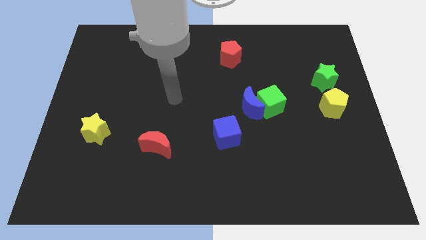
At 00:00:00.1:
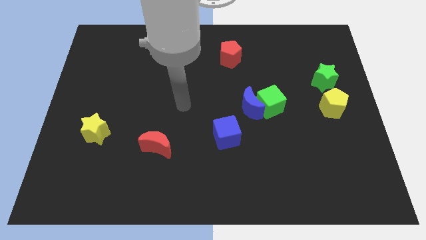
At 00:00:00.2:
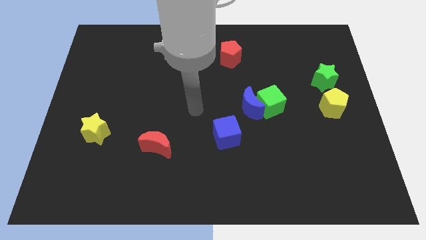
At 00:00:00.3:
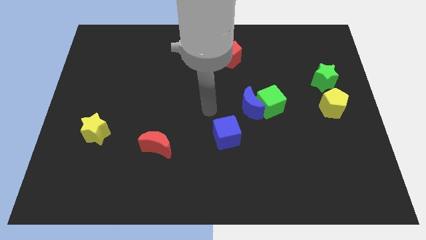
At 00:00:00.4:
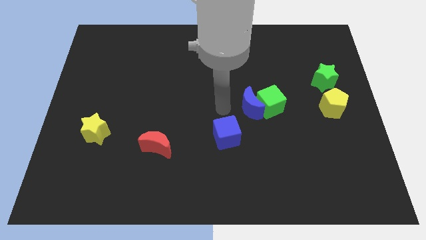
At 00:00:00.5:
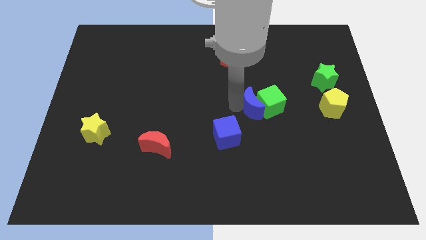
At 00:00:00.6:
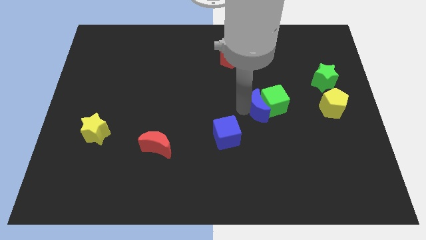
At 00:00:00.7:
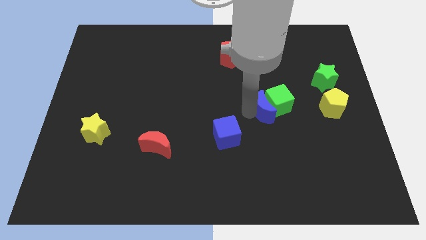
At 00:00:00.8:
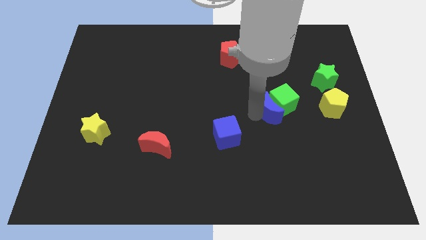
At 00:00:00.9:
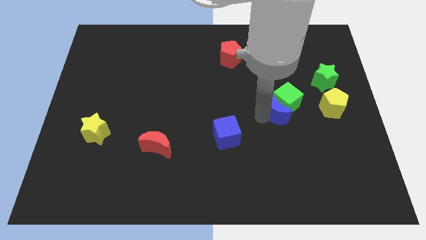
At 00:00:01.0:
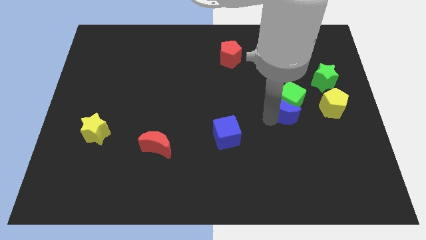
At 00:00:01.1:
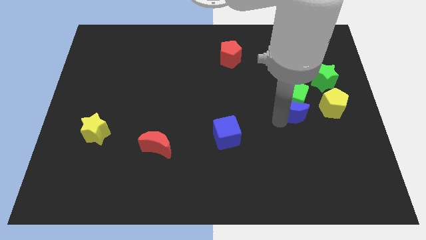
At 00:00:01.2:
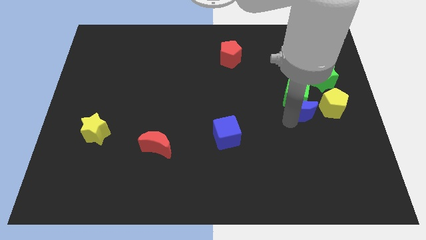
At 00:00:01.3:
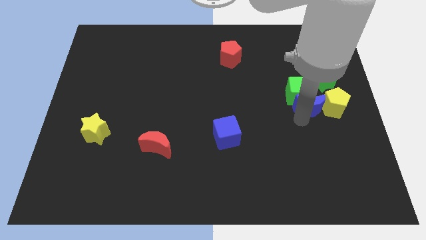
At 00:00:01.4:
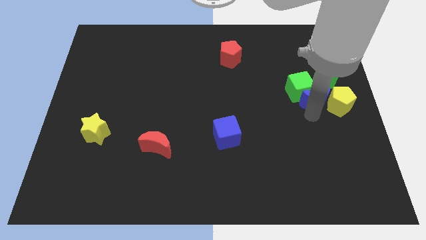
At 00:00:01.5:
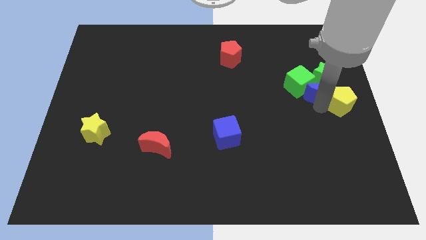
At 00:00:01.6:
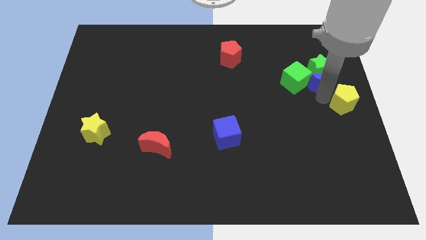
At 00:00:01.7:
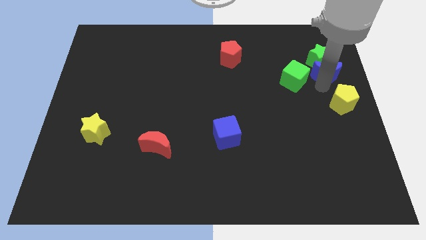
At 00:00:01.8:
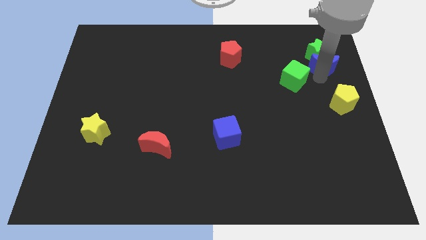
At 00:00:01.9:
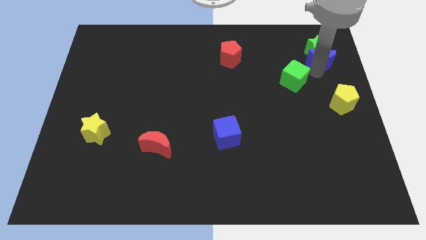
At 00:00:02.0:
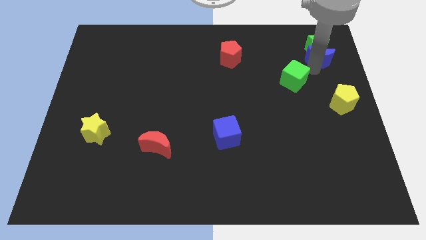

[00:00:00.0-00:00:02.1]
pull the green cube apart from the blue moon

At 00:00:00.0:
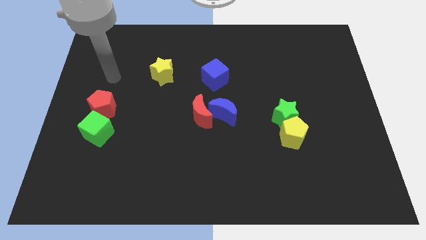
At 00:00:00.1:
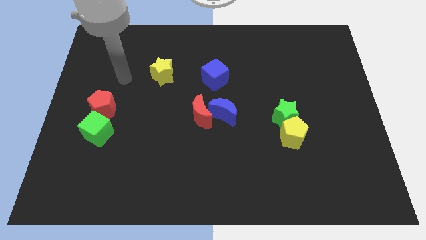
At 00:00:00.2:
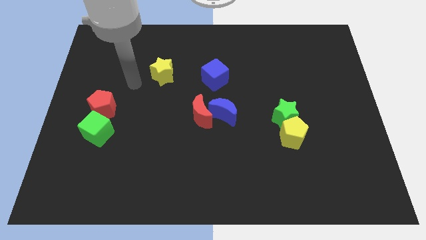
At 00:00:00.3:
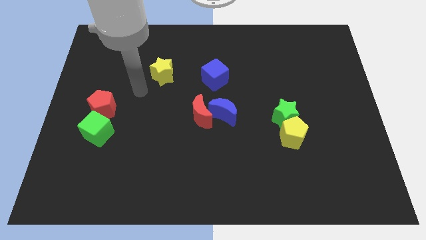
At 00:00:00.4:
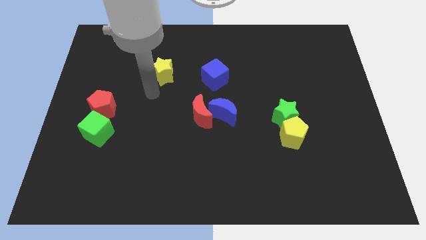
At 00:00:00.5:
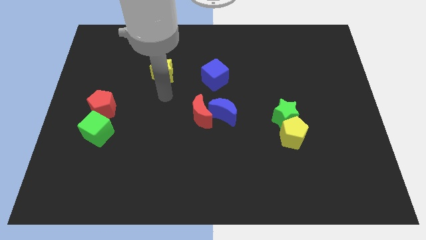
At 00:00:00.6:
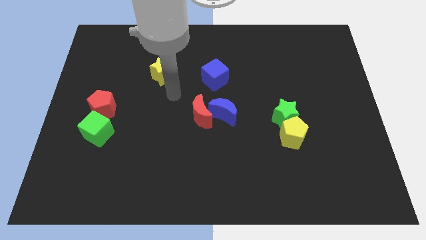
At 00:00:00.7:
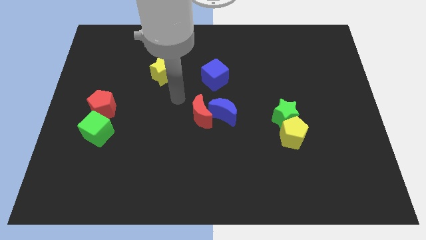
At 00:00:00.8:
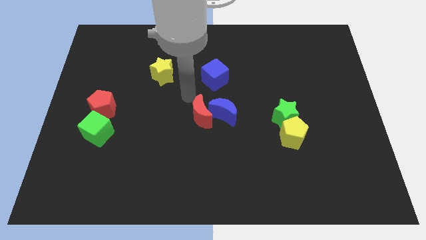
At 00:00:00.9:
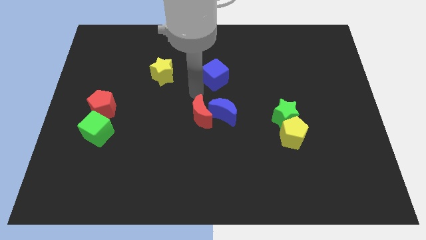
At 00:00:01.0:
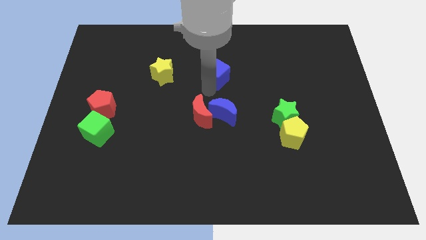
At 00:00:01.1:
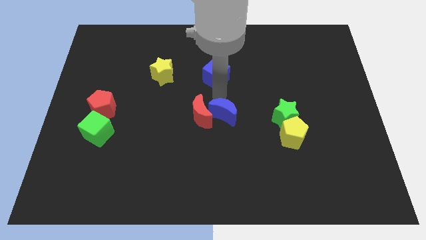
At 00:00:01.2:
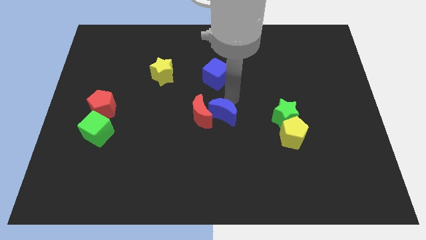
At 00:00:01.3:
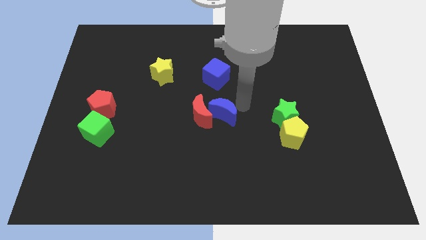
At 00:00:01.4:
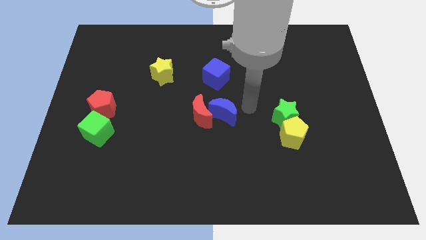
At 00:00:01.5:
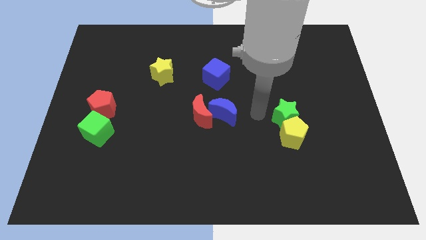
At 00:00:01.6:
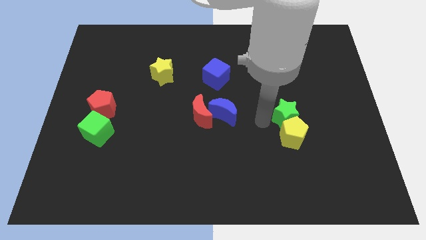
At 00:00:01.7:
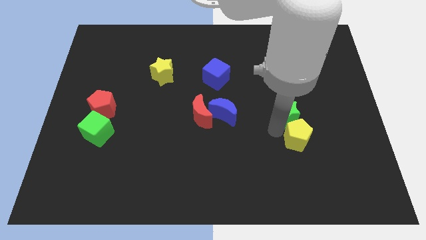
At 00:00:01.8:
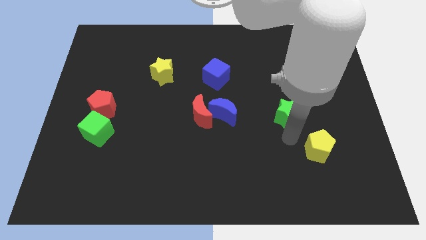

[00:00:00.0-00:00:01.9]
move the green star away from the yellow pentagon

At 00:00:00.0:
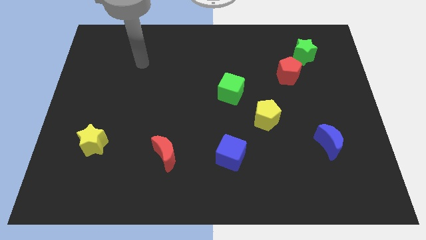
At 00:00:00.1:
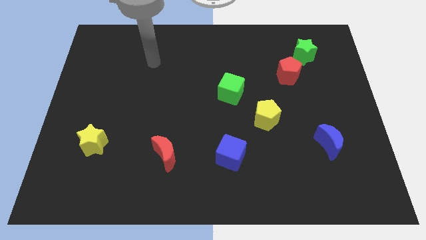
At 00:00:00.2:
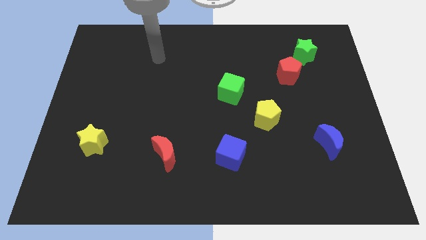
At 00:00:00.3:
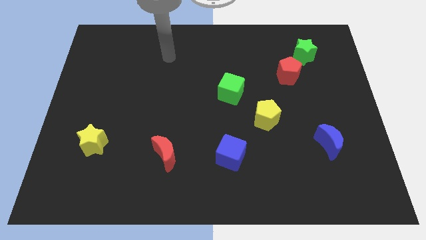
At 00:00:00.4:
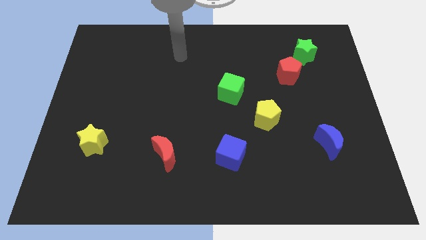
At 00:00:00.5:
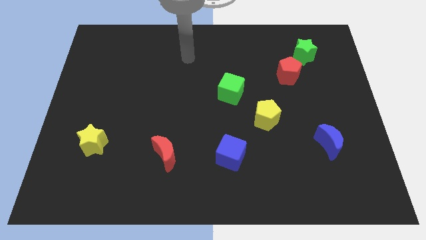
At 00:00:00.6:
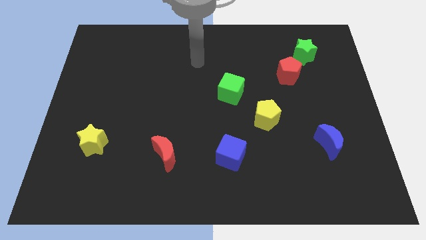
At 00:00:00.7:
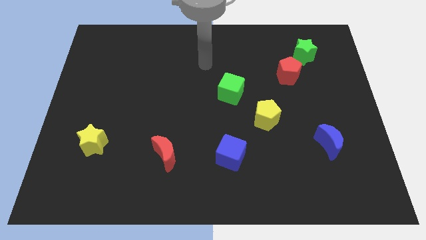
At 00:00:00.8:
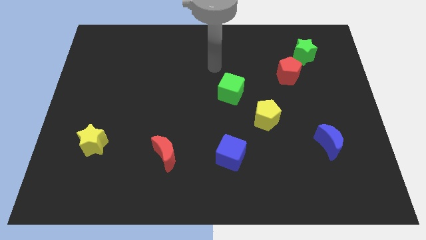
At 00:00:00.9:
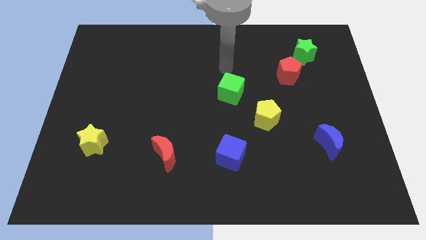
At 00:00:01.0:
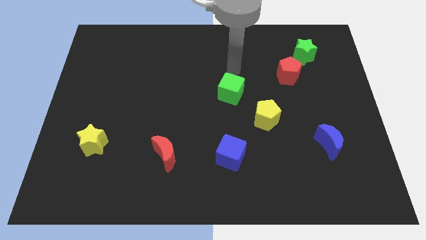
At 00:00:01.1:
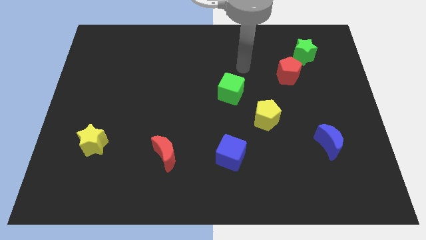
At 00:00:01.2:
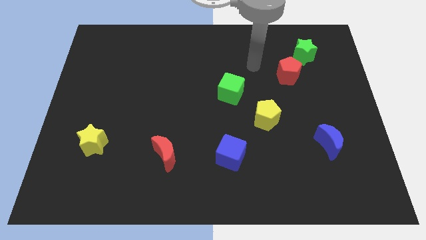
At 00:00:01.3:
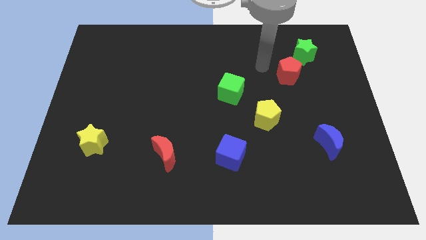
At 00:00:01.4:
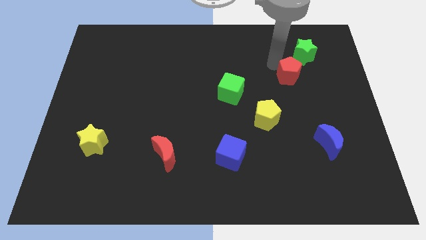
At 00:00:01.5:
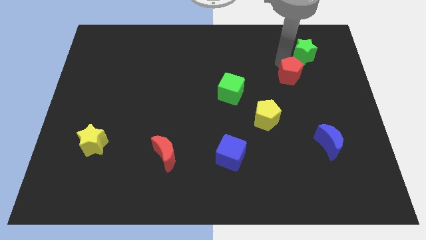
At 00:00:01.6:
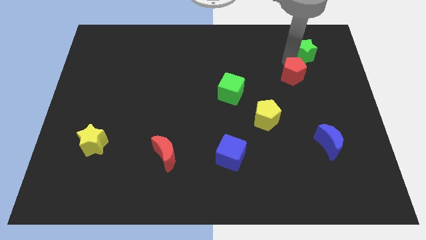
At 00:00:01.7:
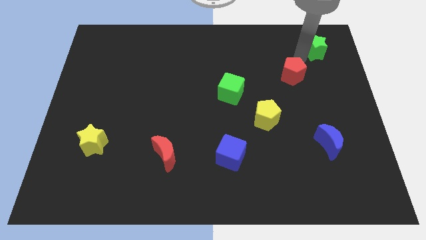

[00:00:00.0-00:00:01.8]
pull the red pentagon apart from the green star

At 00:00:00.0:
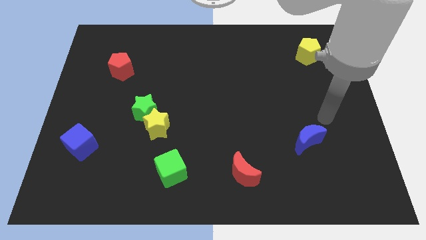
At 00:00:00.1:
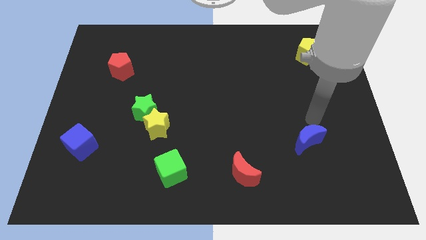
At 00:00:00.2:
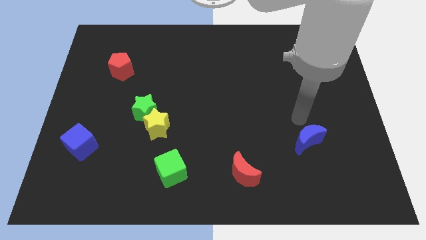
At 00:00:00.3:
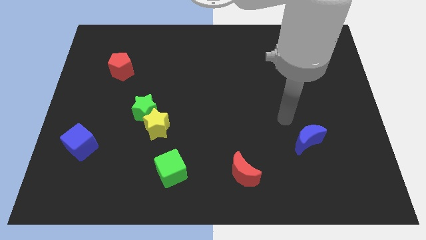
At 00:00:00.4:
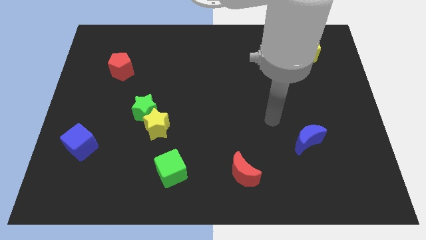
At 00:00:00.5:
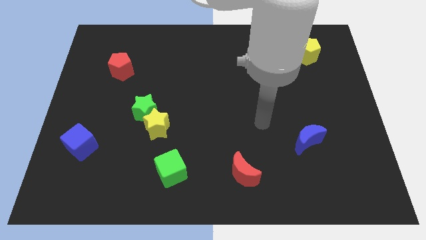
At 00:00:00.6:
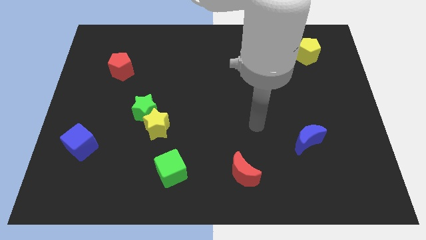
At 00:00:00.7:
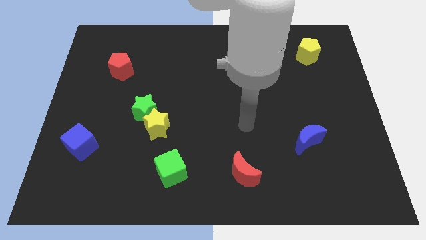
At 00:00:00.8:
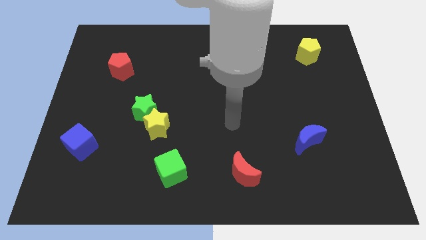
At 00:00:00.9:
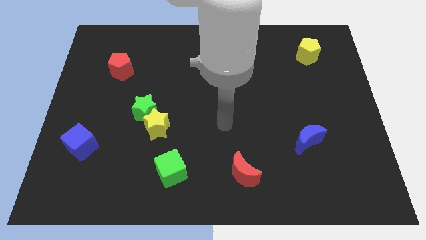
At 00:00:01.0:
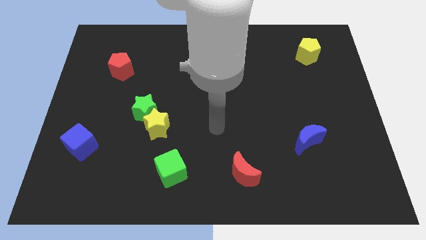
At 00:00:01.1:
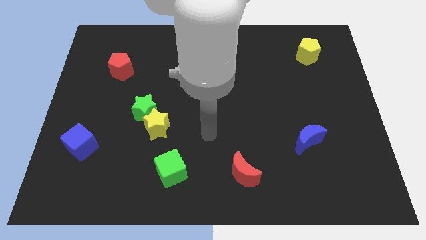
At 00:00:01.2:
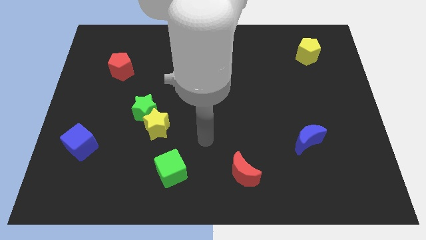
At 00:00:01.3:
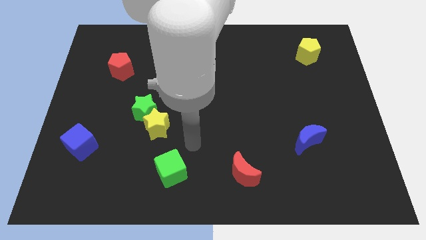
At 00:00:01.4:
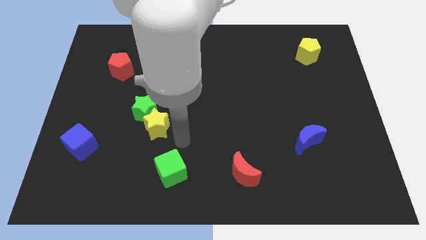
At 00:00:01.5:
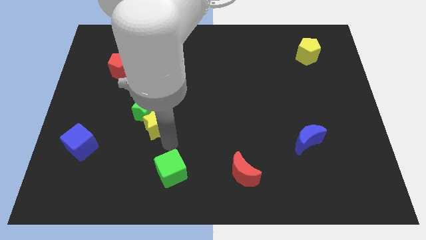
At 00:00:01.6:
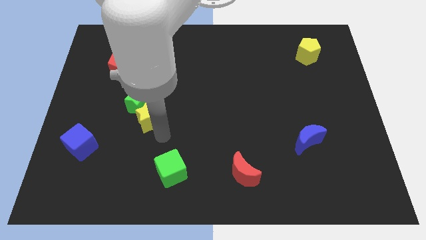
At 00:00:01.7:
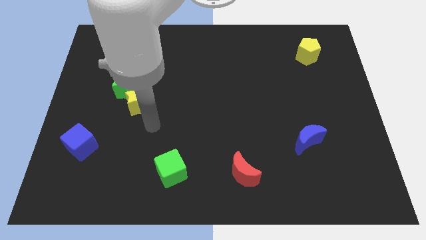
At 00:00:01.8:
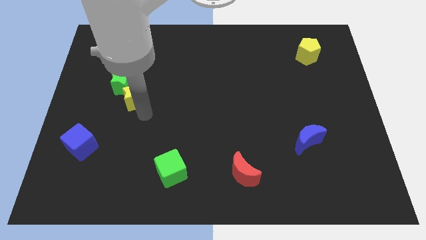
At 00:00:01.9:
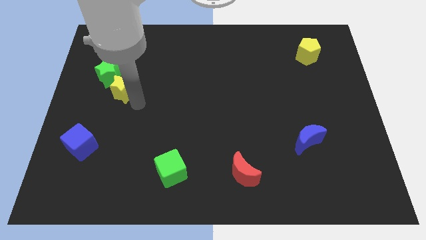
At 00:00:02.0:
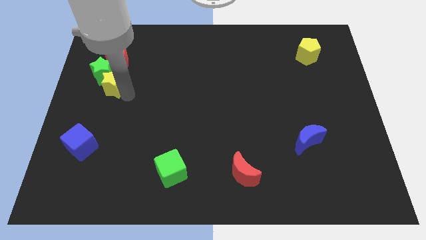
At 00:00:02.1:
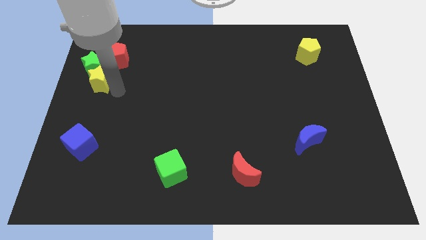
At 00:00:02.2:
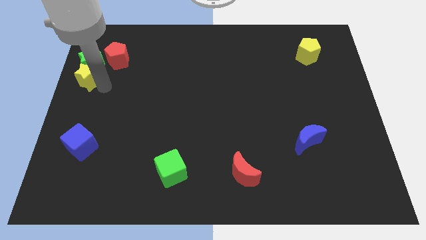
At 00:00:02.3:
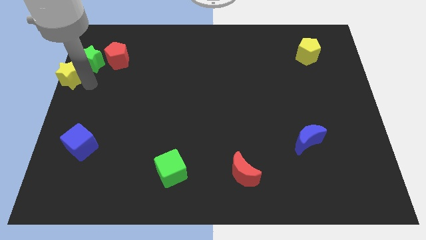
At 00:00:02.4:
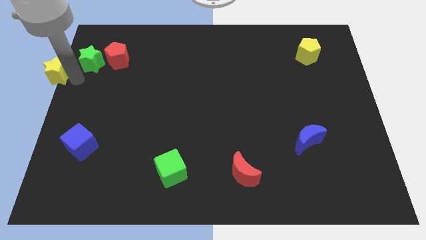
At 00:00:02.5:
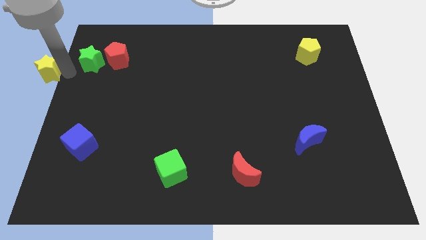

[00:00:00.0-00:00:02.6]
pull the green star apart from the yellow star

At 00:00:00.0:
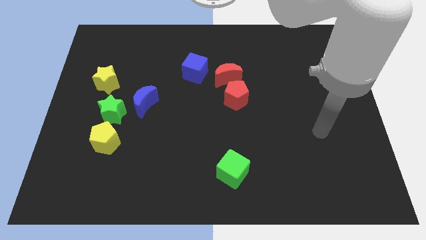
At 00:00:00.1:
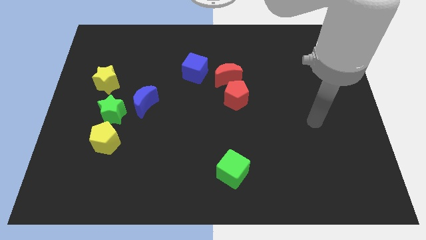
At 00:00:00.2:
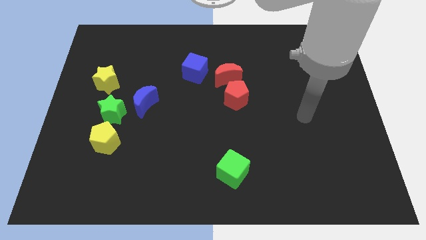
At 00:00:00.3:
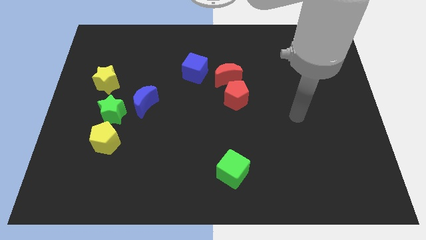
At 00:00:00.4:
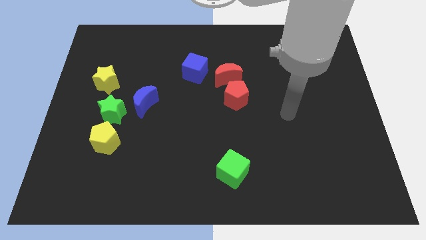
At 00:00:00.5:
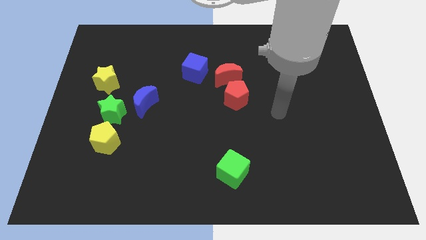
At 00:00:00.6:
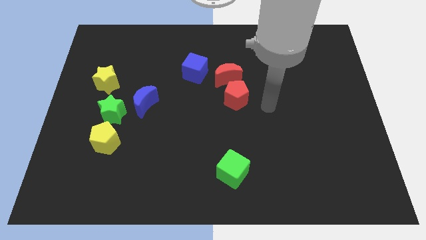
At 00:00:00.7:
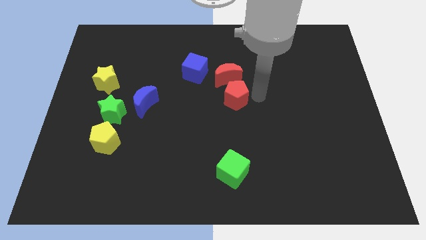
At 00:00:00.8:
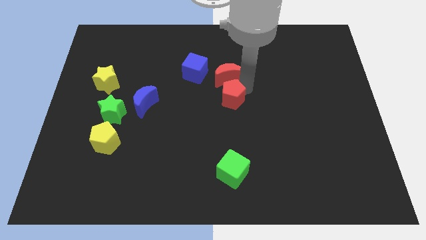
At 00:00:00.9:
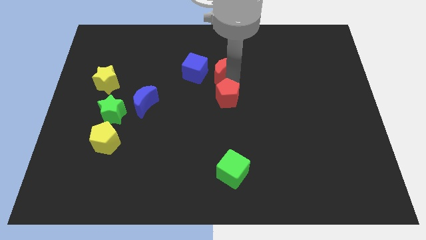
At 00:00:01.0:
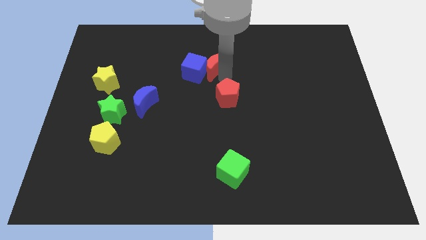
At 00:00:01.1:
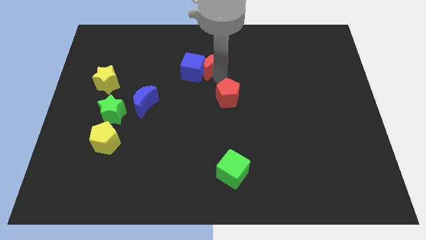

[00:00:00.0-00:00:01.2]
separate the red pentagon from the red moon
